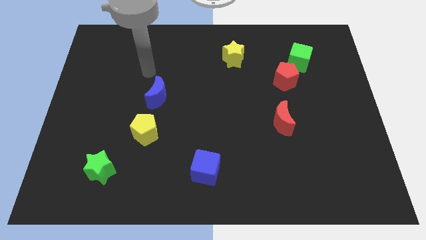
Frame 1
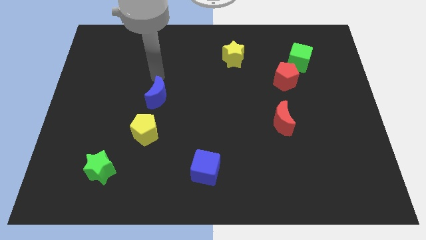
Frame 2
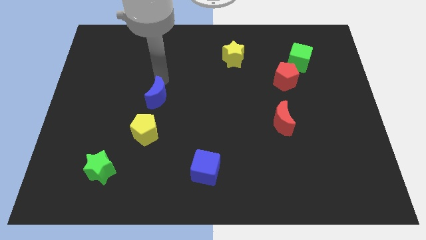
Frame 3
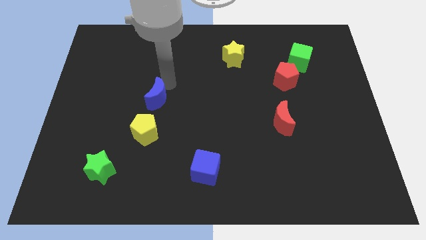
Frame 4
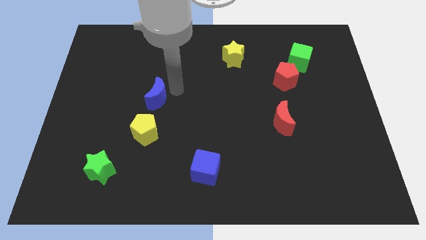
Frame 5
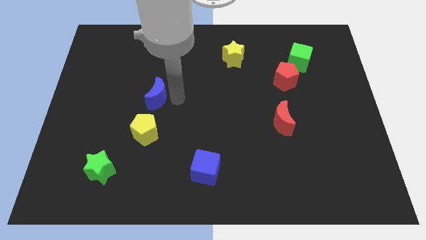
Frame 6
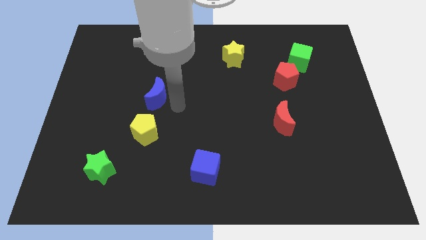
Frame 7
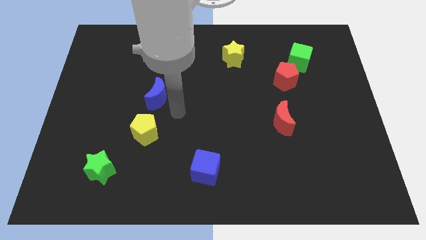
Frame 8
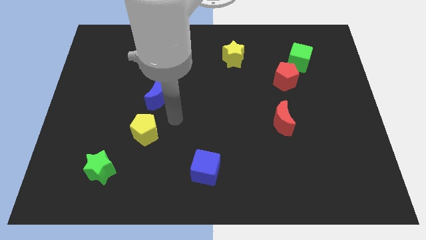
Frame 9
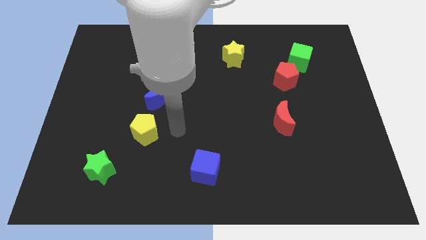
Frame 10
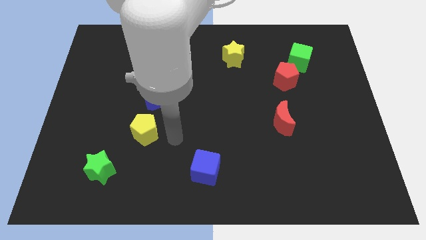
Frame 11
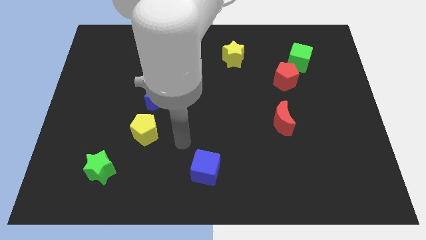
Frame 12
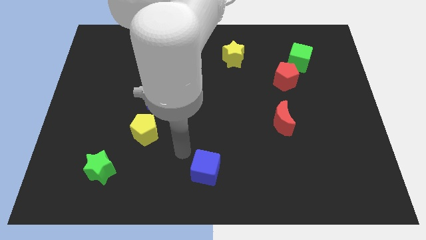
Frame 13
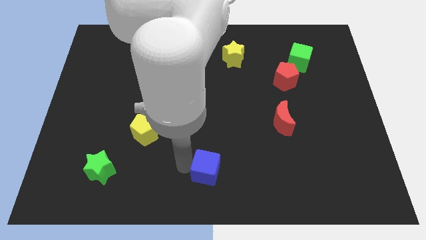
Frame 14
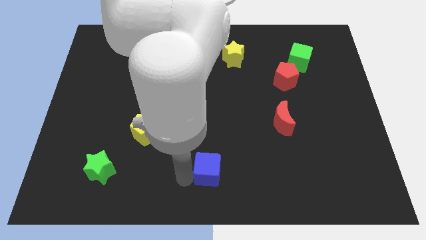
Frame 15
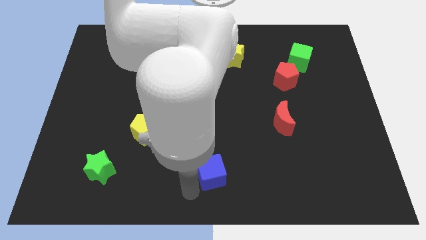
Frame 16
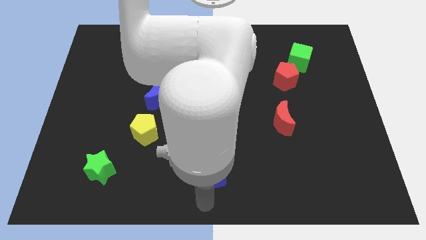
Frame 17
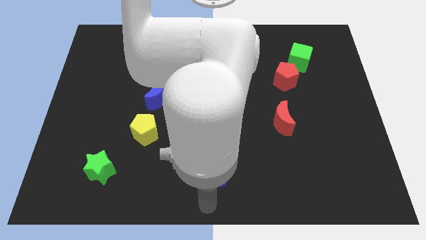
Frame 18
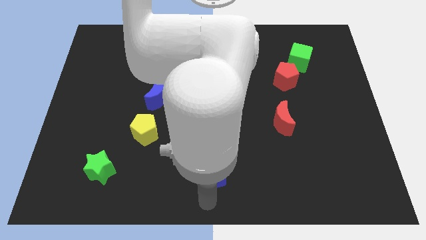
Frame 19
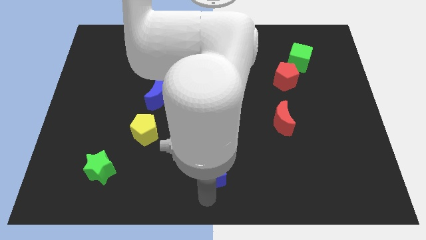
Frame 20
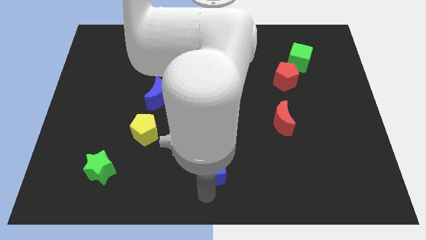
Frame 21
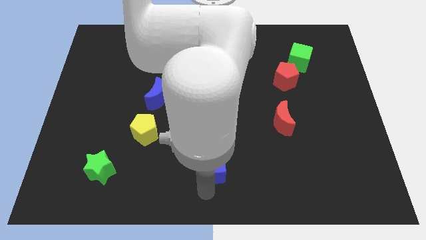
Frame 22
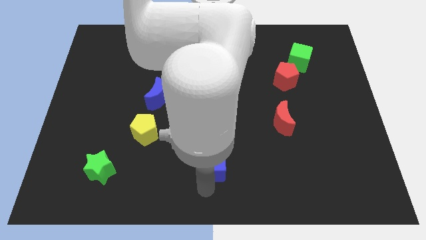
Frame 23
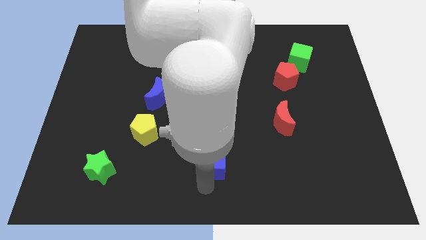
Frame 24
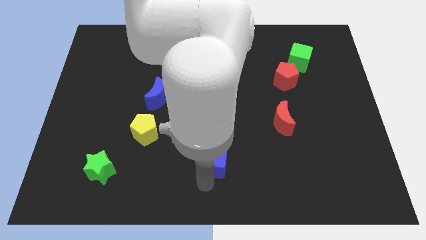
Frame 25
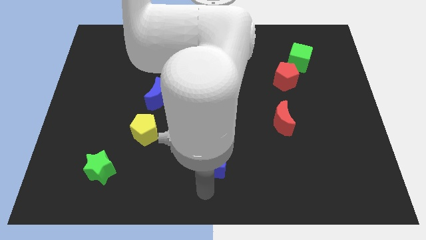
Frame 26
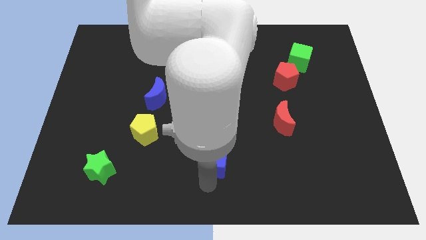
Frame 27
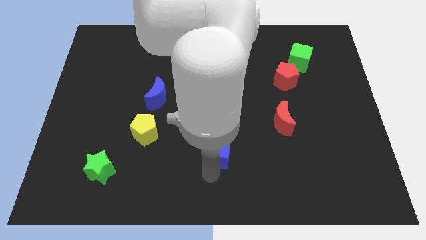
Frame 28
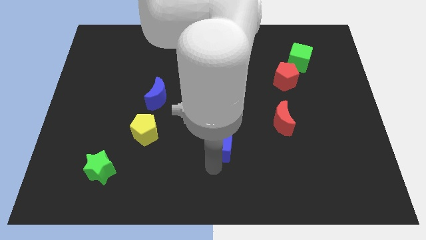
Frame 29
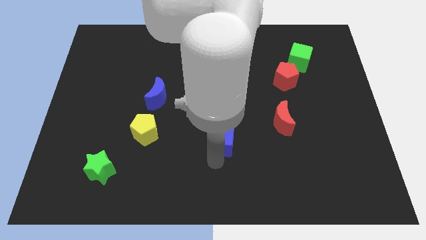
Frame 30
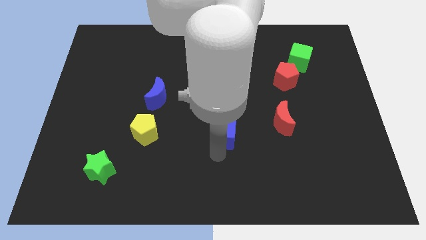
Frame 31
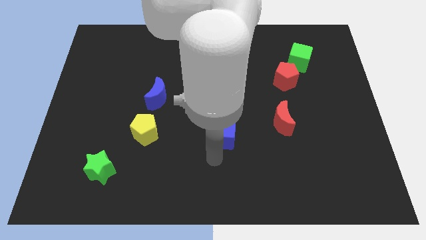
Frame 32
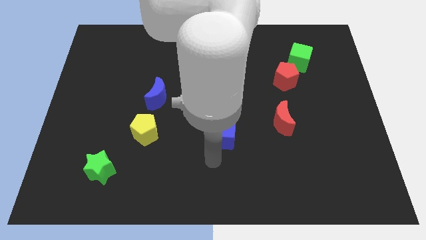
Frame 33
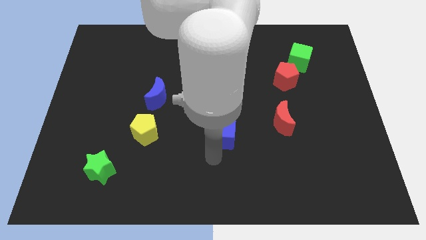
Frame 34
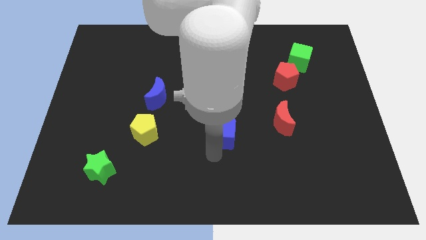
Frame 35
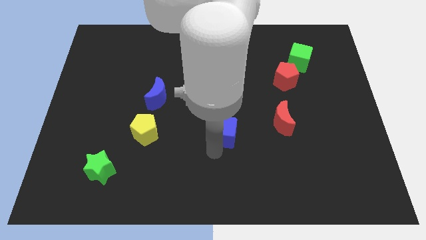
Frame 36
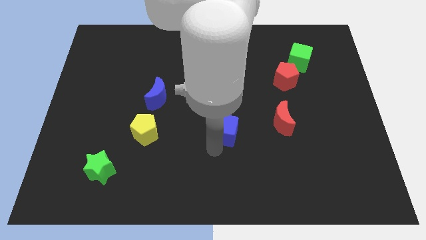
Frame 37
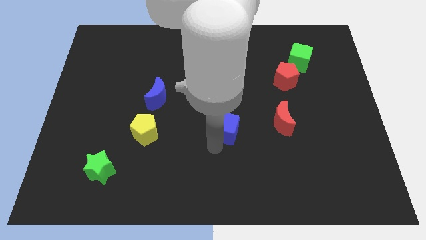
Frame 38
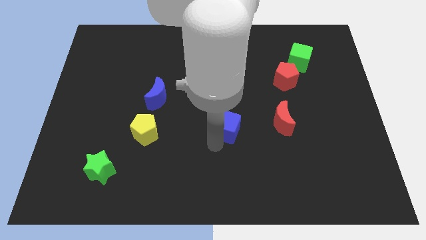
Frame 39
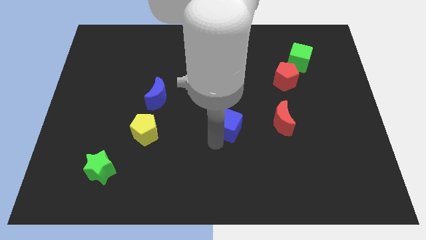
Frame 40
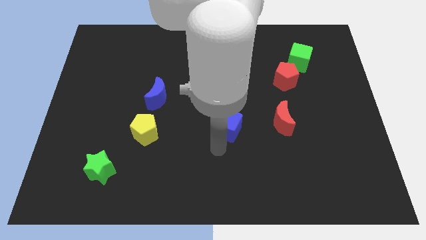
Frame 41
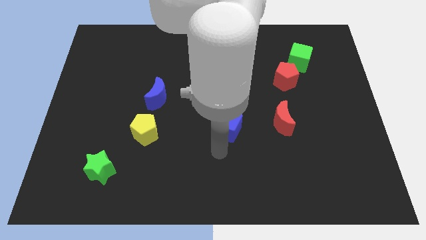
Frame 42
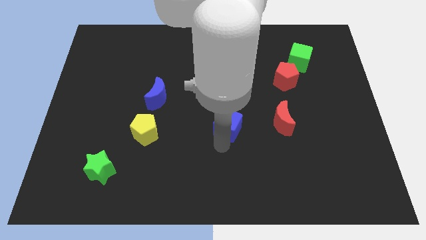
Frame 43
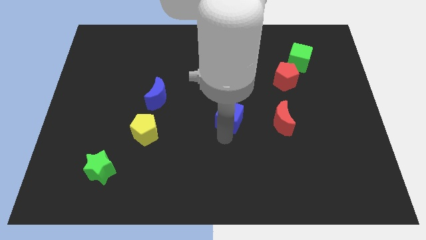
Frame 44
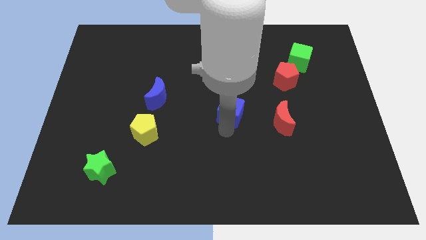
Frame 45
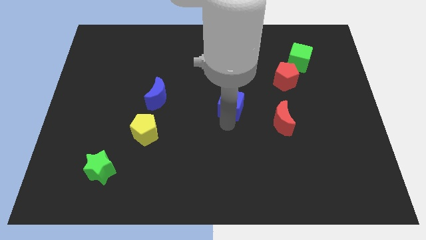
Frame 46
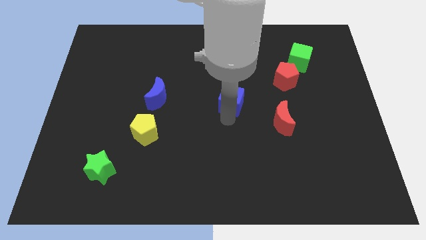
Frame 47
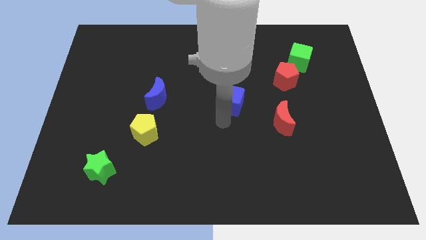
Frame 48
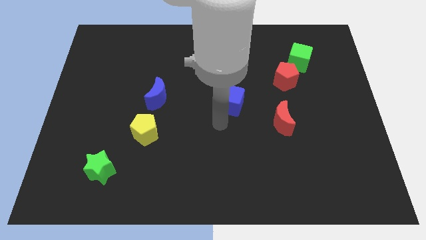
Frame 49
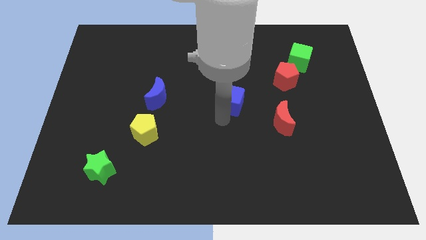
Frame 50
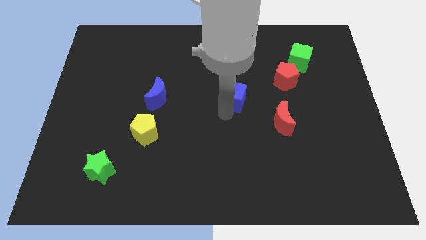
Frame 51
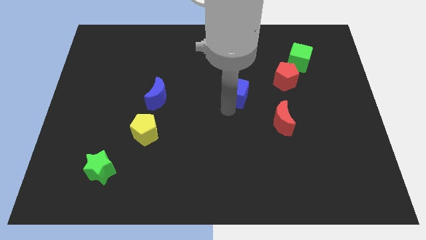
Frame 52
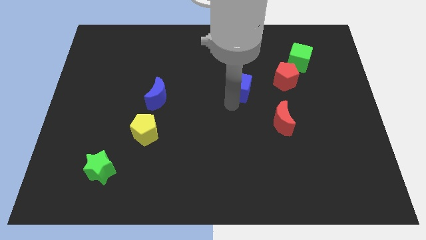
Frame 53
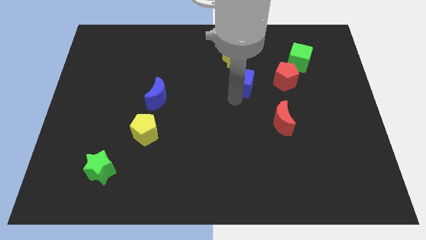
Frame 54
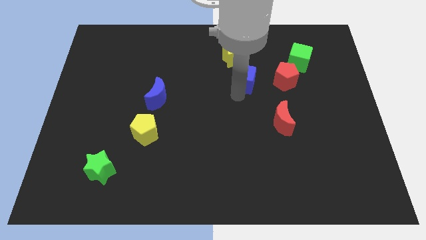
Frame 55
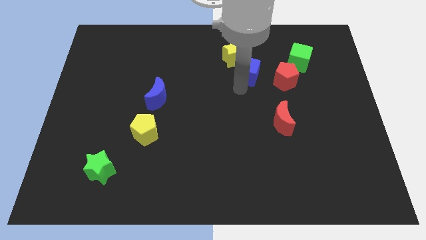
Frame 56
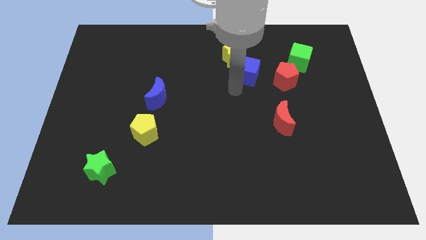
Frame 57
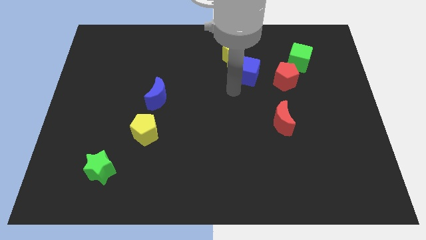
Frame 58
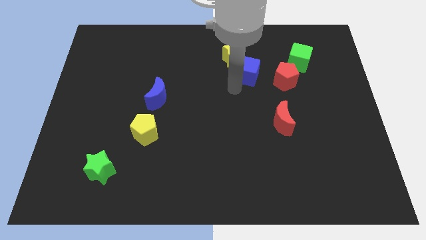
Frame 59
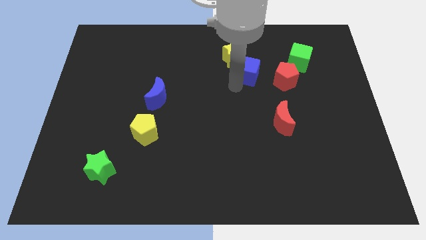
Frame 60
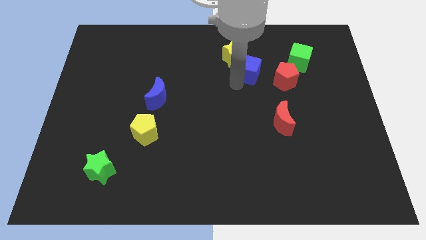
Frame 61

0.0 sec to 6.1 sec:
move the blue cube to the left of the green cube

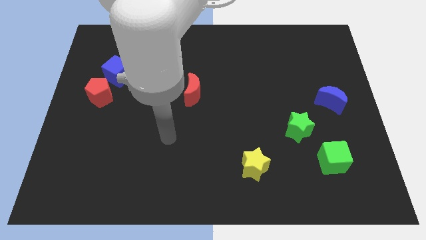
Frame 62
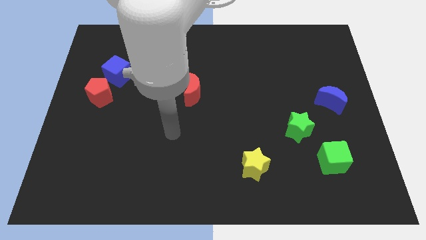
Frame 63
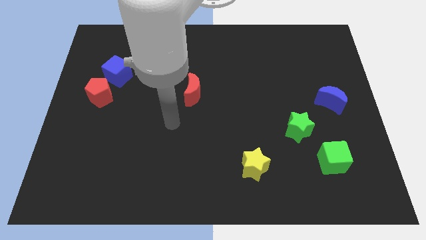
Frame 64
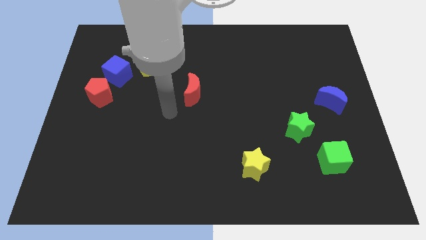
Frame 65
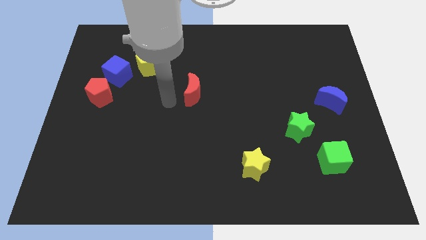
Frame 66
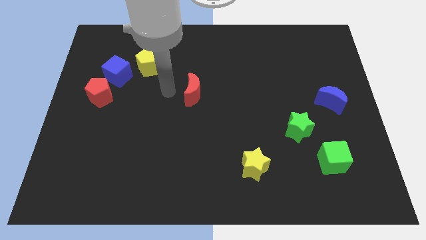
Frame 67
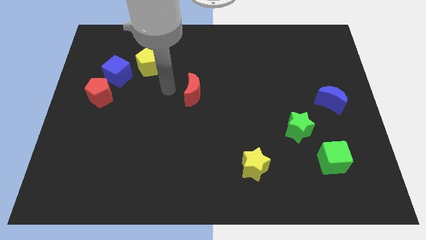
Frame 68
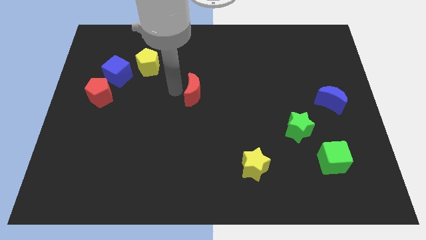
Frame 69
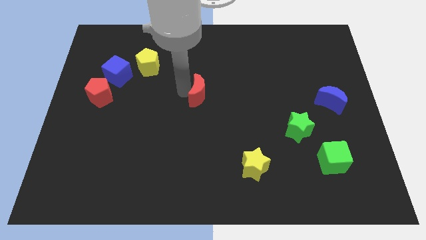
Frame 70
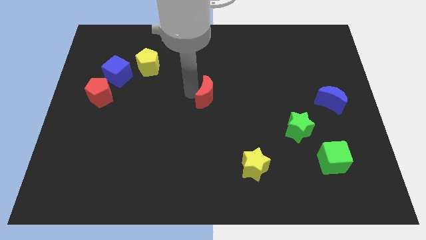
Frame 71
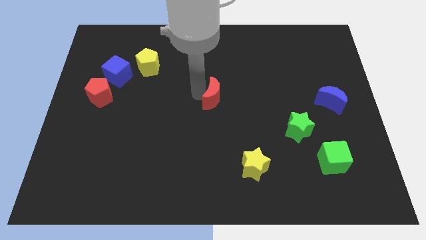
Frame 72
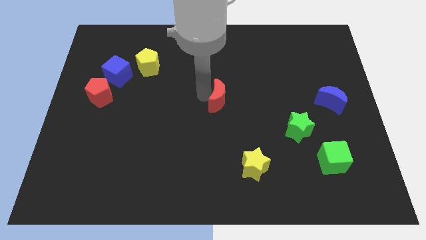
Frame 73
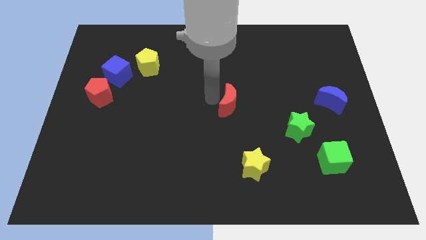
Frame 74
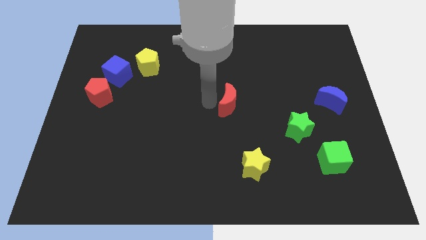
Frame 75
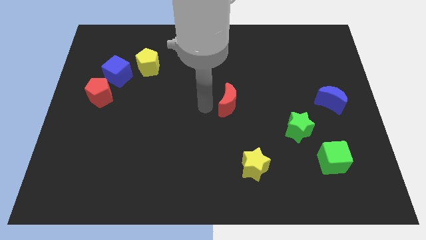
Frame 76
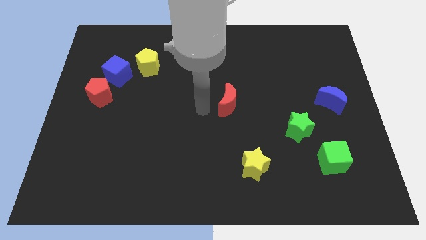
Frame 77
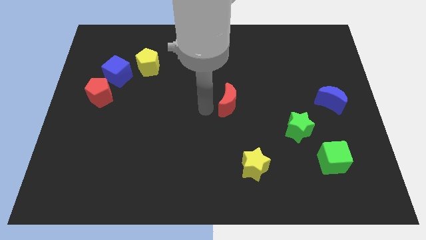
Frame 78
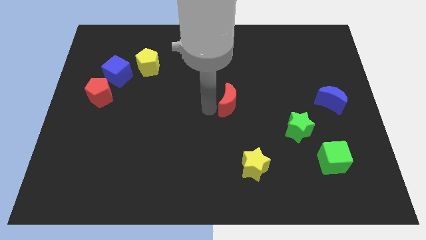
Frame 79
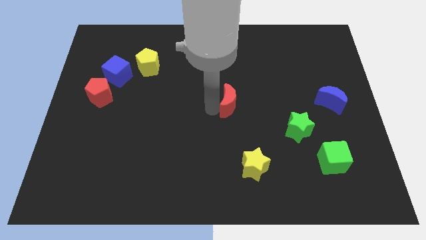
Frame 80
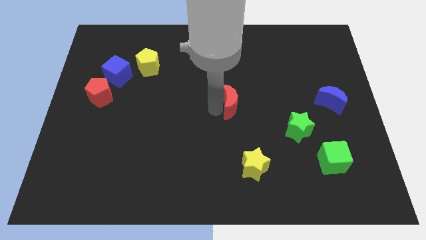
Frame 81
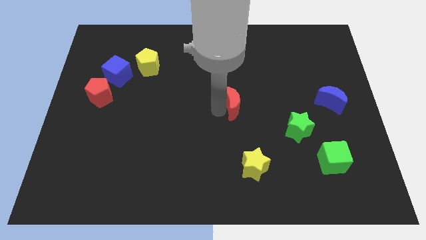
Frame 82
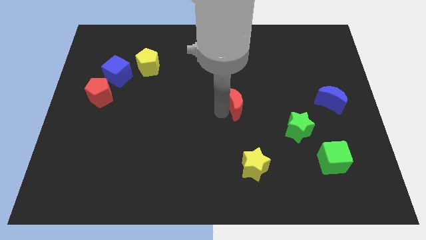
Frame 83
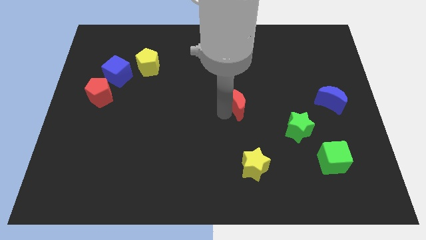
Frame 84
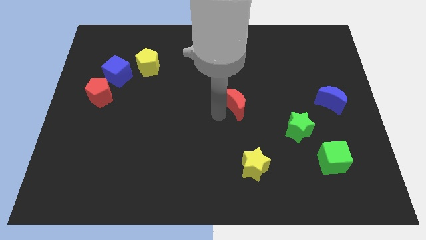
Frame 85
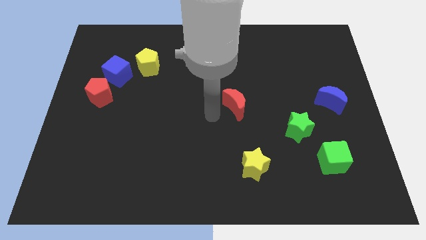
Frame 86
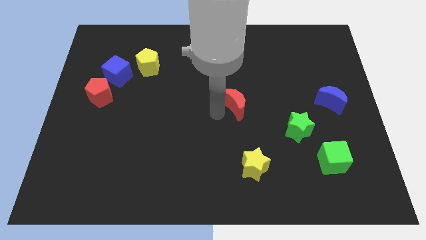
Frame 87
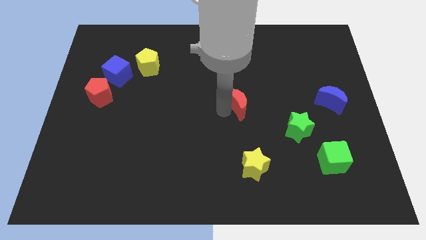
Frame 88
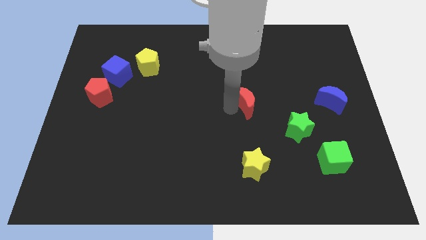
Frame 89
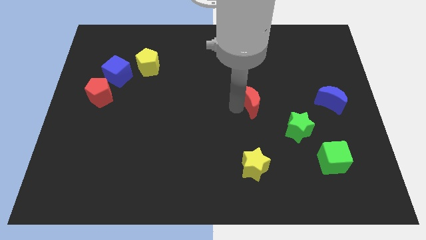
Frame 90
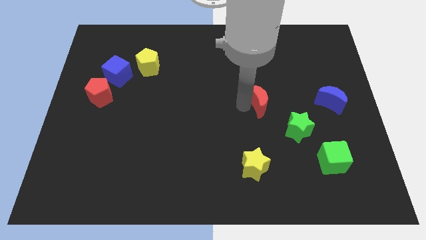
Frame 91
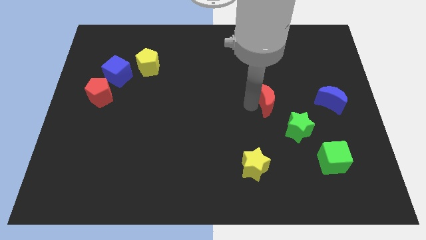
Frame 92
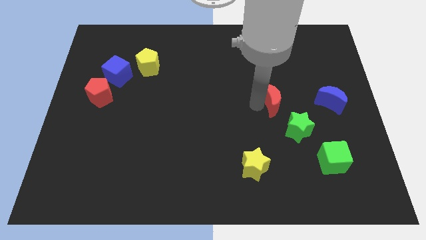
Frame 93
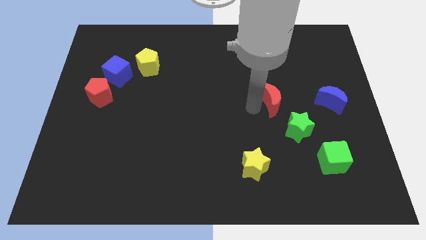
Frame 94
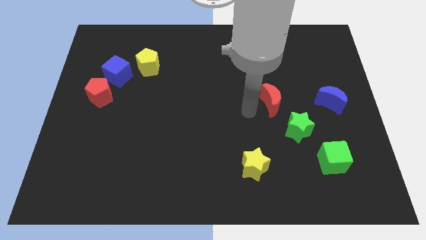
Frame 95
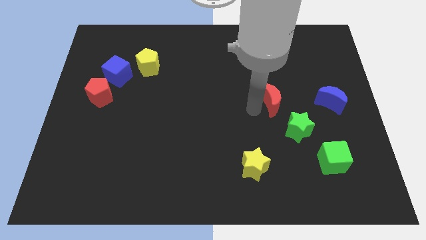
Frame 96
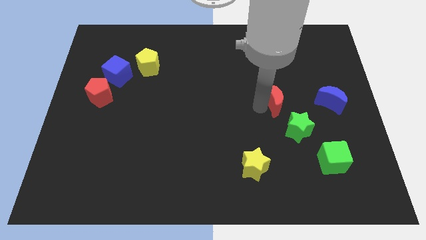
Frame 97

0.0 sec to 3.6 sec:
put the red moon above the green star
